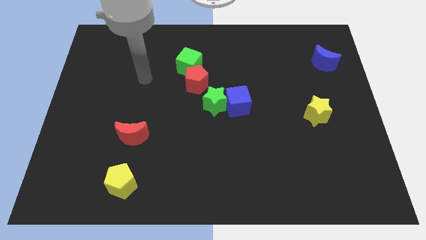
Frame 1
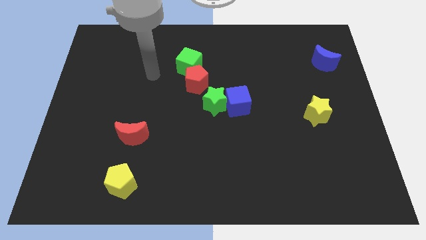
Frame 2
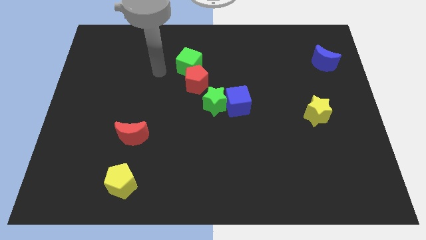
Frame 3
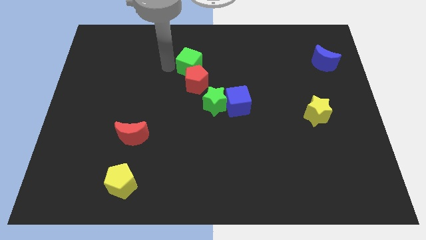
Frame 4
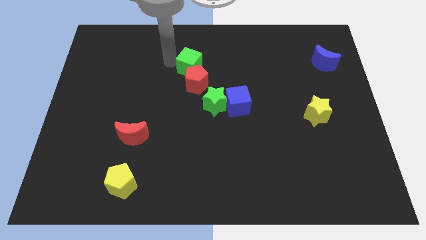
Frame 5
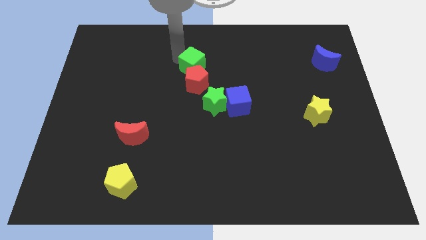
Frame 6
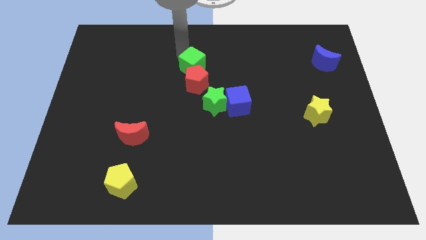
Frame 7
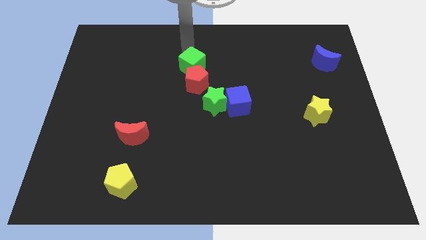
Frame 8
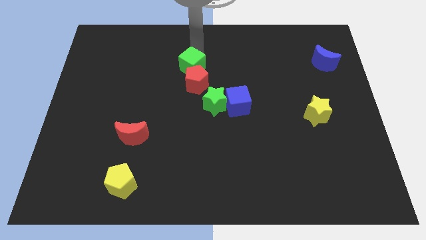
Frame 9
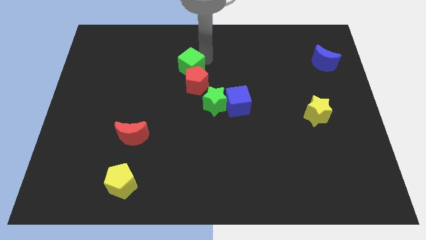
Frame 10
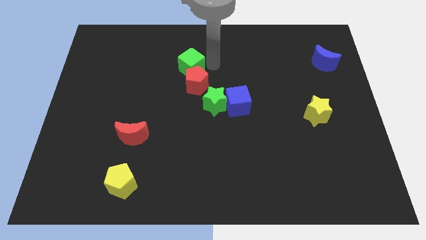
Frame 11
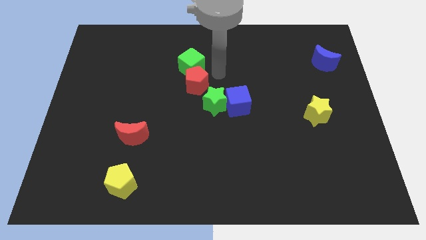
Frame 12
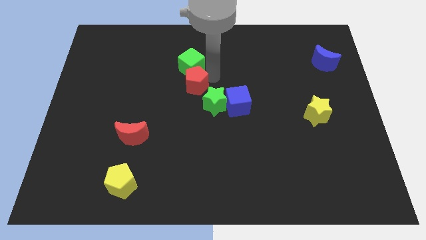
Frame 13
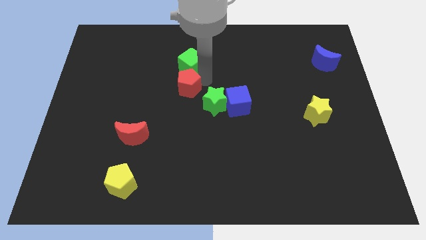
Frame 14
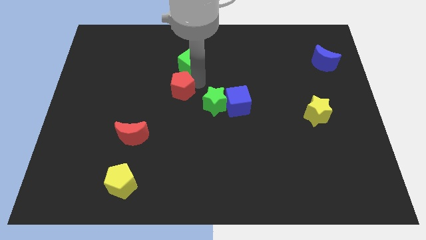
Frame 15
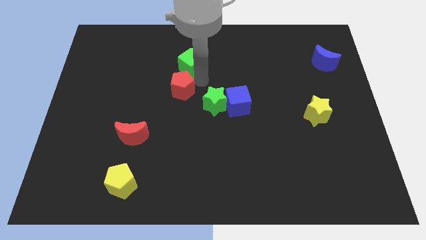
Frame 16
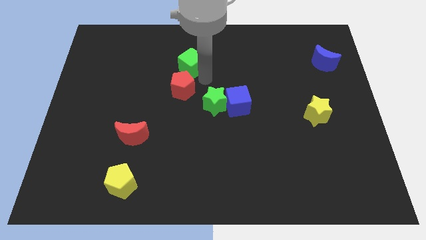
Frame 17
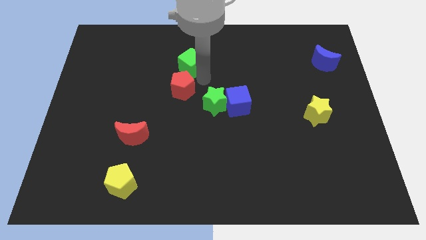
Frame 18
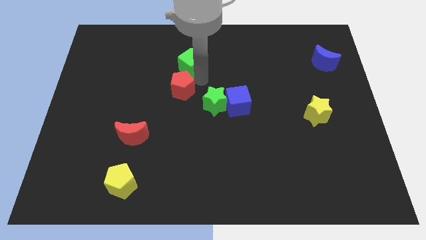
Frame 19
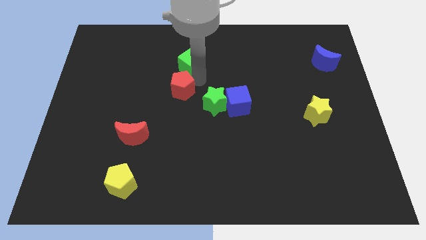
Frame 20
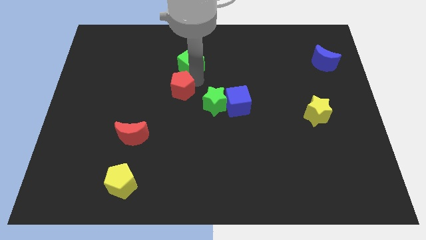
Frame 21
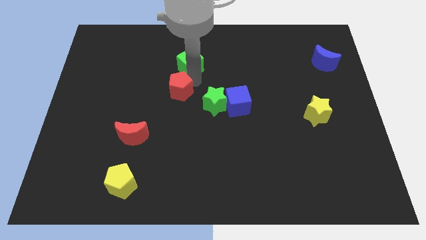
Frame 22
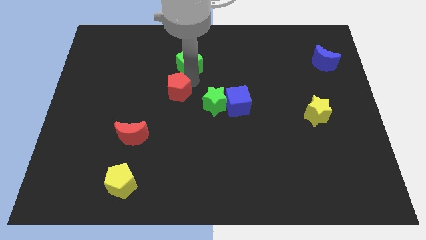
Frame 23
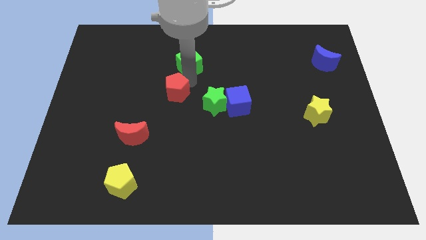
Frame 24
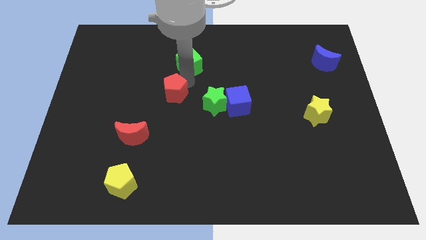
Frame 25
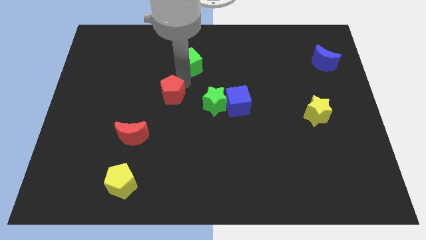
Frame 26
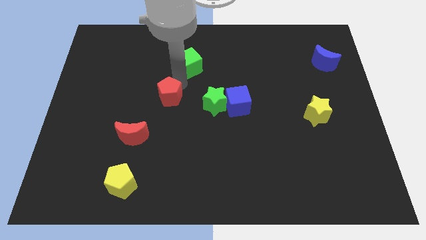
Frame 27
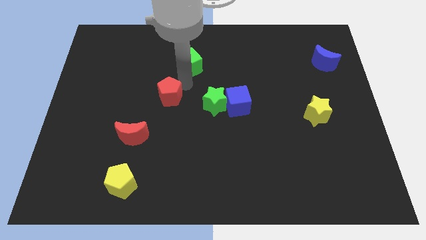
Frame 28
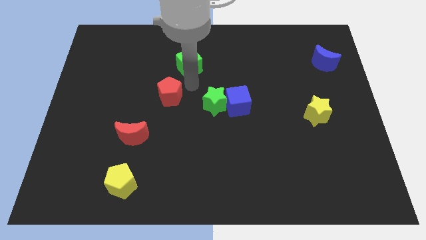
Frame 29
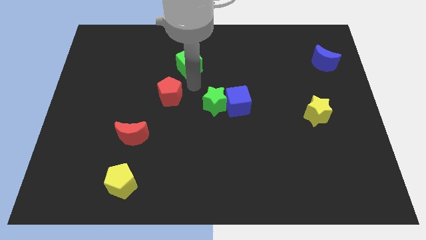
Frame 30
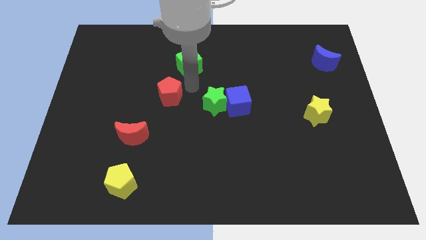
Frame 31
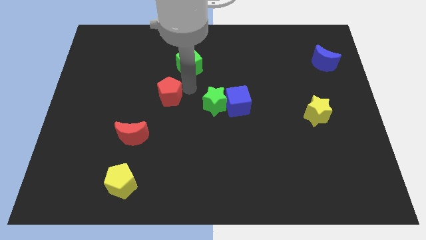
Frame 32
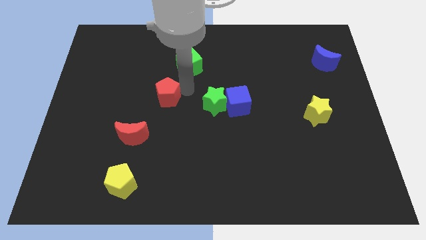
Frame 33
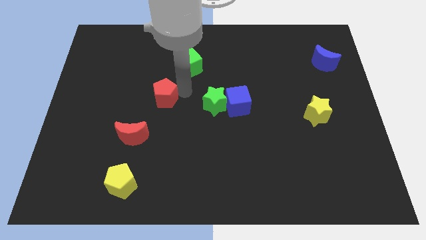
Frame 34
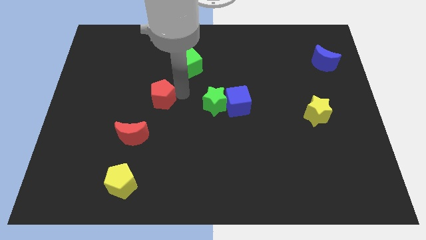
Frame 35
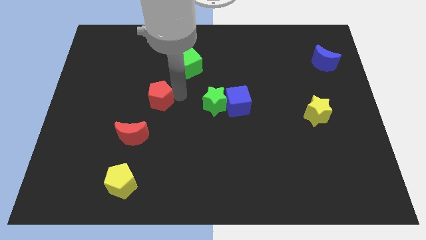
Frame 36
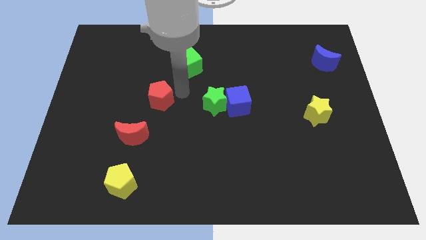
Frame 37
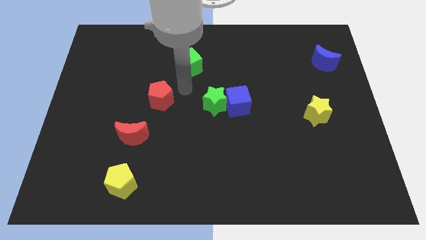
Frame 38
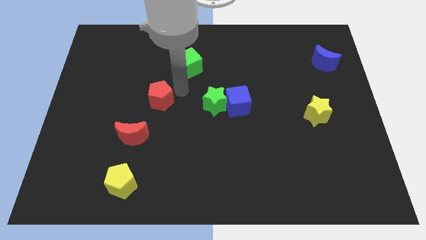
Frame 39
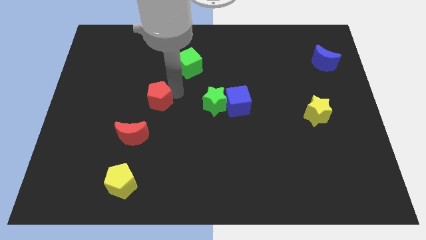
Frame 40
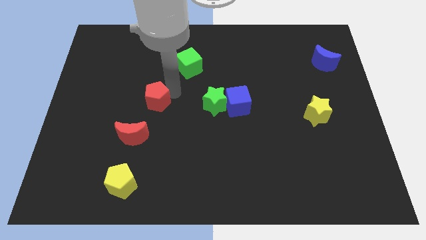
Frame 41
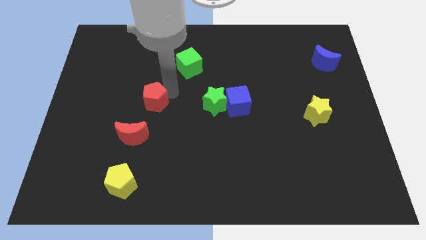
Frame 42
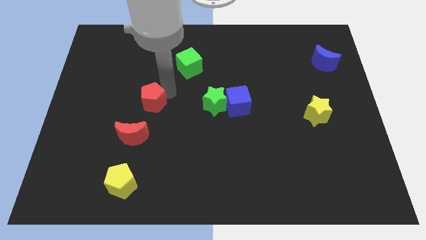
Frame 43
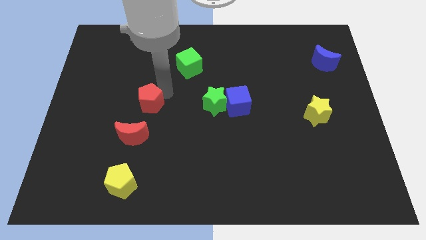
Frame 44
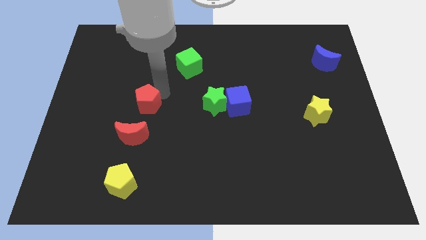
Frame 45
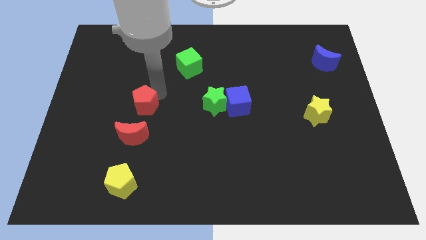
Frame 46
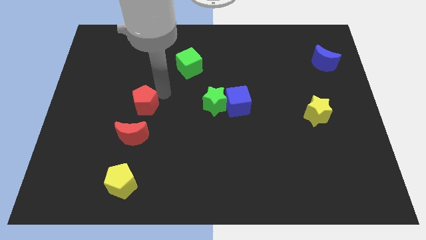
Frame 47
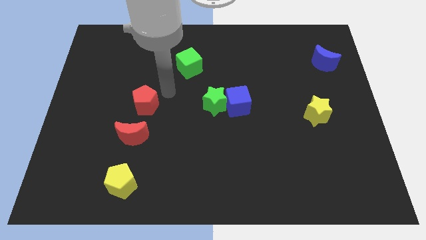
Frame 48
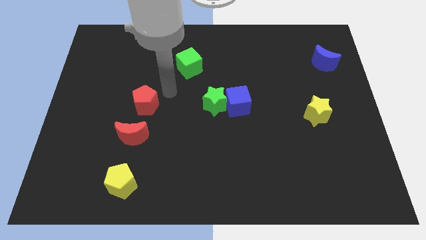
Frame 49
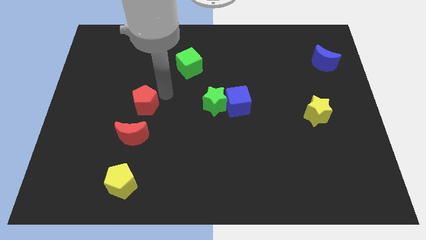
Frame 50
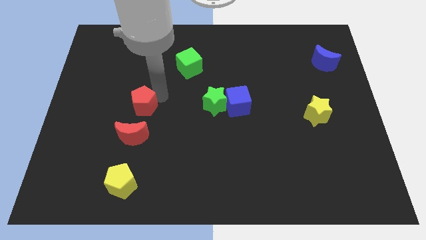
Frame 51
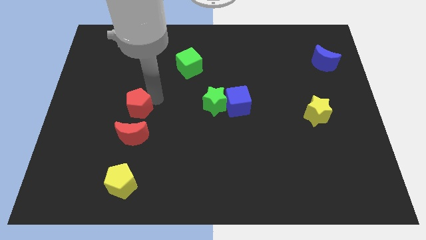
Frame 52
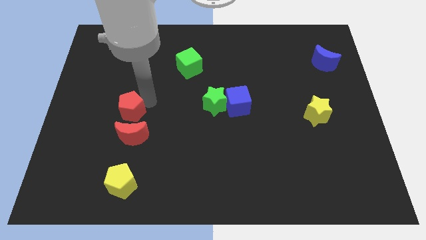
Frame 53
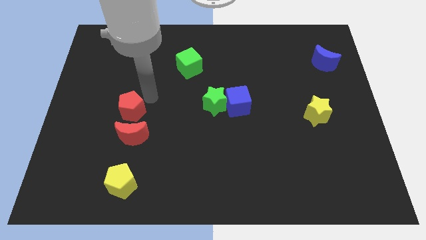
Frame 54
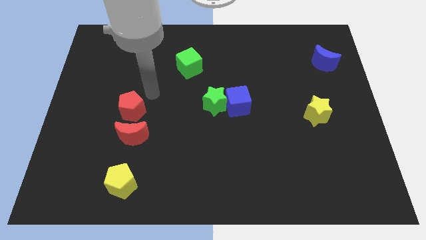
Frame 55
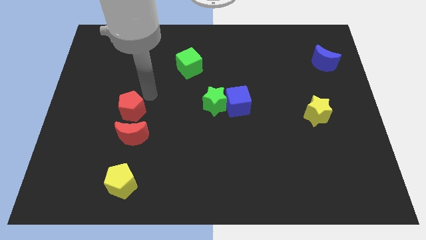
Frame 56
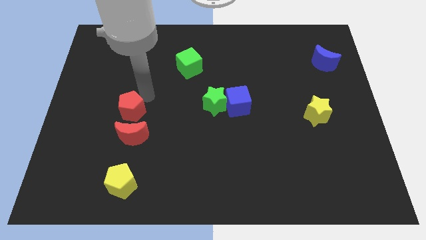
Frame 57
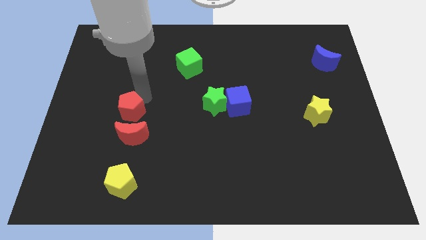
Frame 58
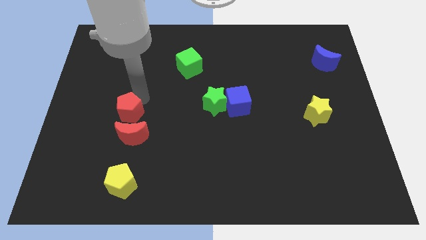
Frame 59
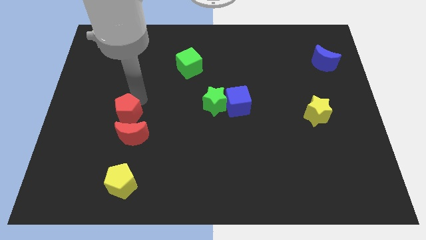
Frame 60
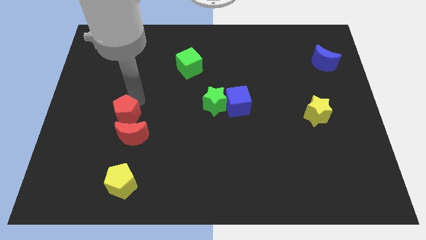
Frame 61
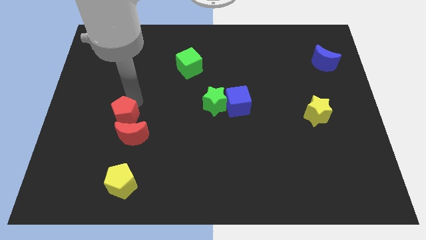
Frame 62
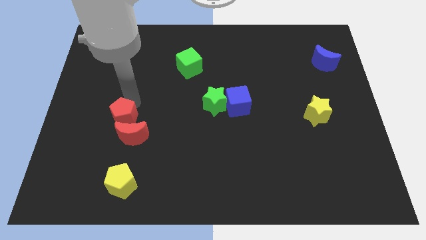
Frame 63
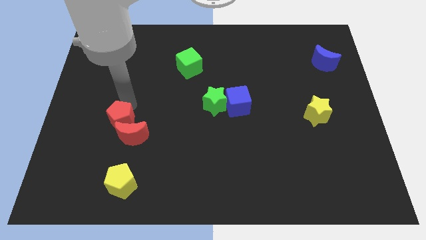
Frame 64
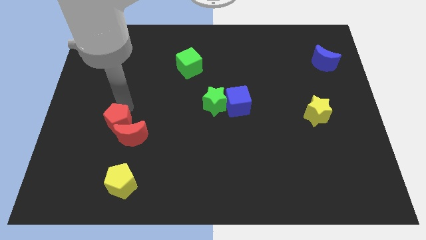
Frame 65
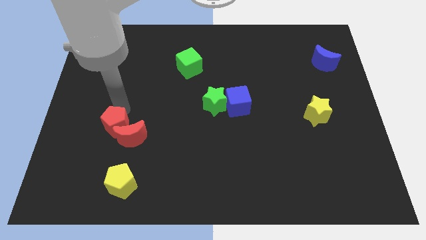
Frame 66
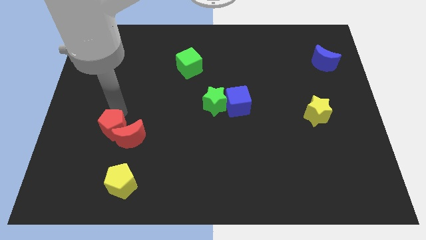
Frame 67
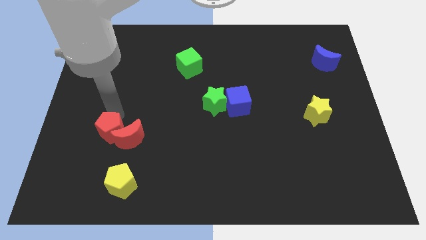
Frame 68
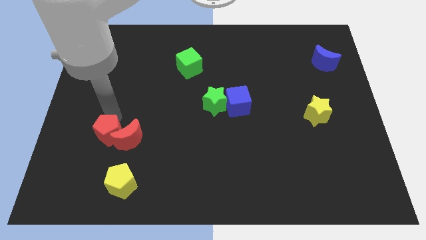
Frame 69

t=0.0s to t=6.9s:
slide the red pentagon to the bottom left side of the red moon
